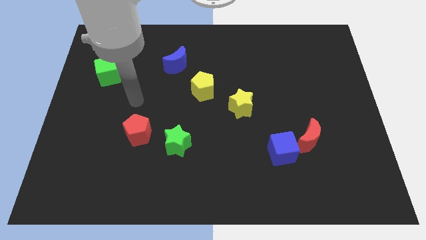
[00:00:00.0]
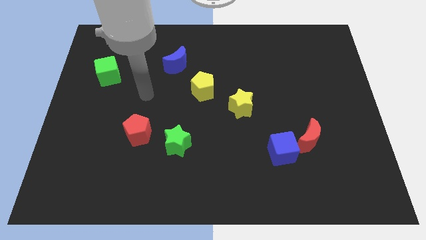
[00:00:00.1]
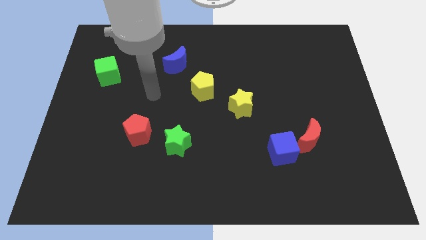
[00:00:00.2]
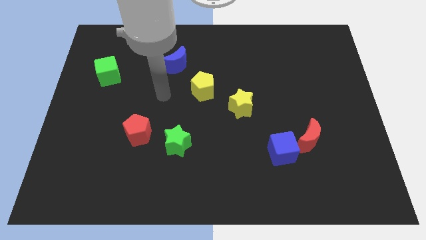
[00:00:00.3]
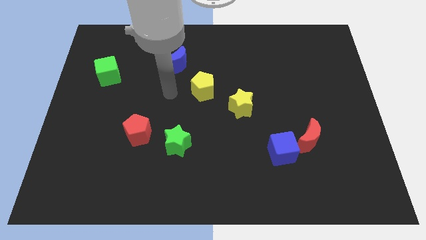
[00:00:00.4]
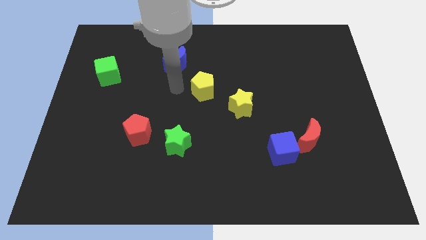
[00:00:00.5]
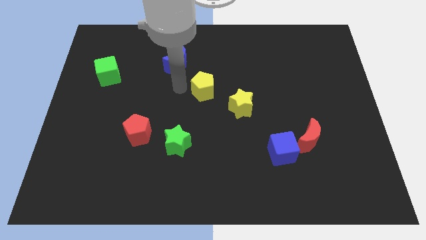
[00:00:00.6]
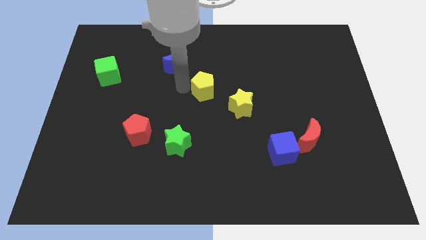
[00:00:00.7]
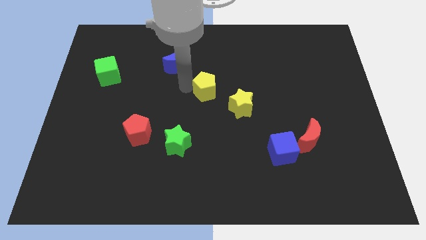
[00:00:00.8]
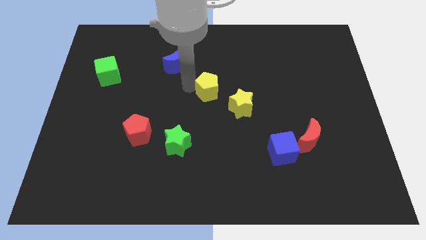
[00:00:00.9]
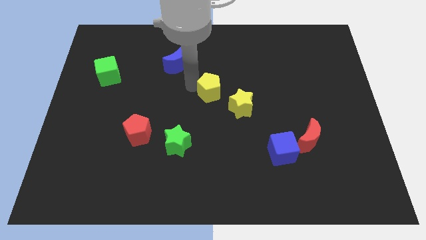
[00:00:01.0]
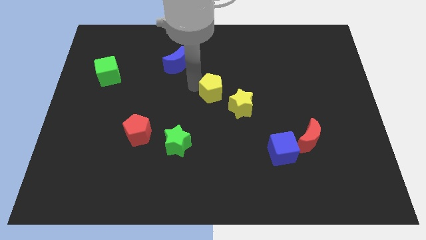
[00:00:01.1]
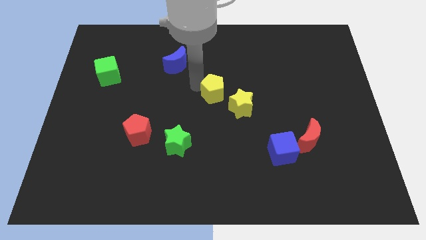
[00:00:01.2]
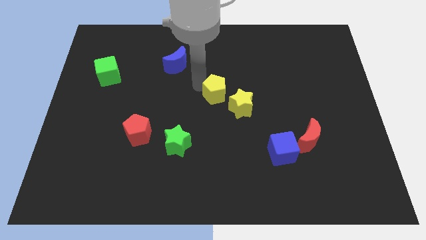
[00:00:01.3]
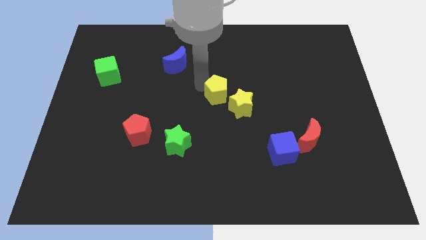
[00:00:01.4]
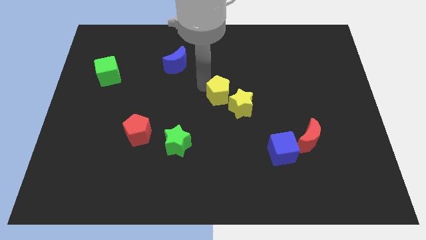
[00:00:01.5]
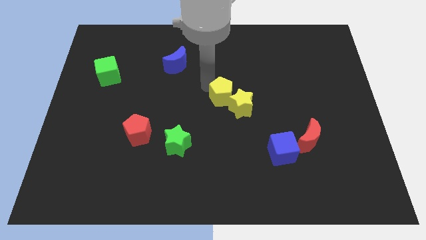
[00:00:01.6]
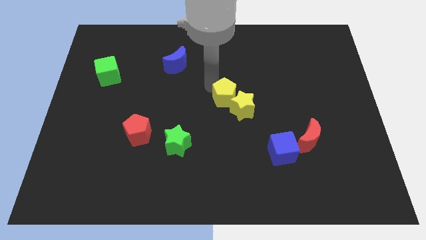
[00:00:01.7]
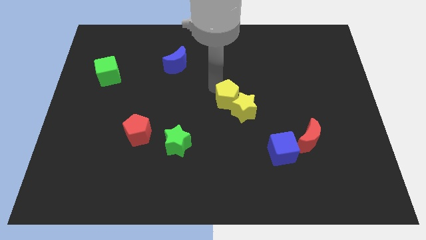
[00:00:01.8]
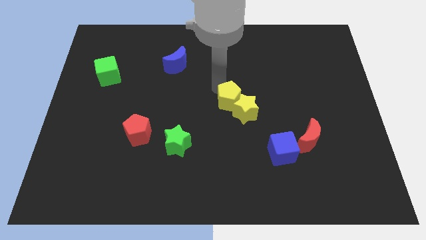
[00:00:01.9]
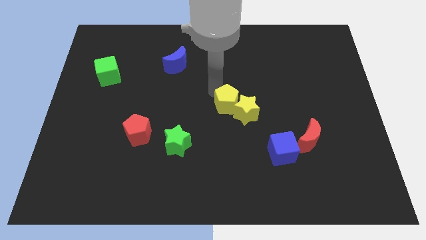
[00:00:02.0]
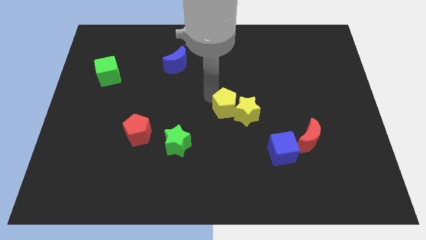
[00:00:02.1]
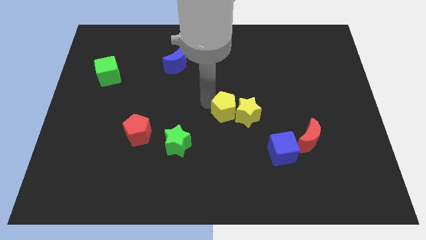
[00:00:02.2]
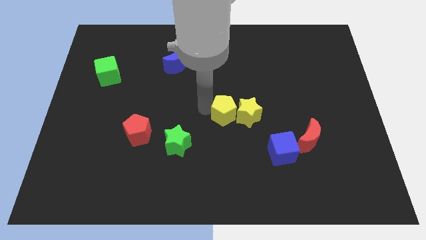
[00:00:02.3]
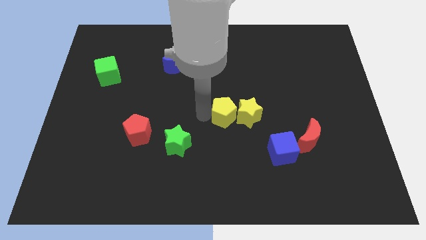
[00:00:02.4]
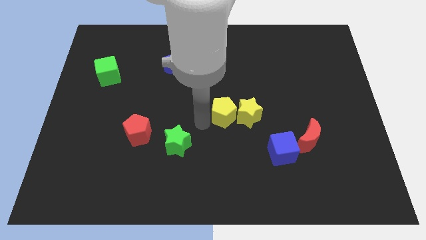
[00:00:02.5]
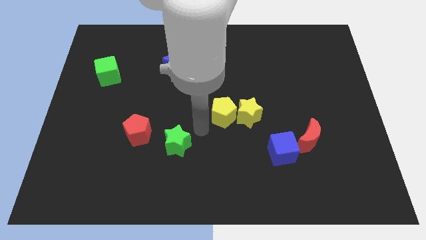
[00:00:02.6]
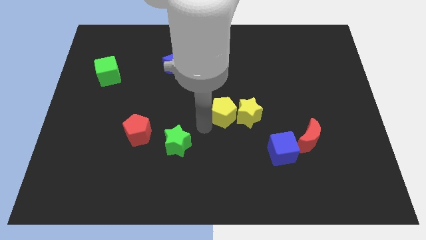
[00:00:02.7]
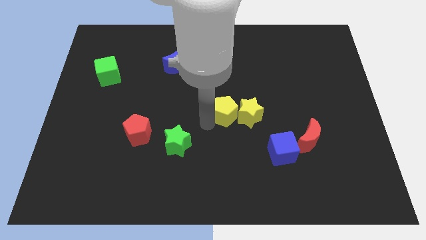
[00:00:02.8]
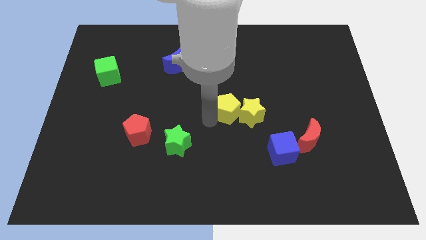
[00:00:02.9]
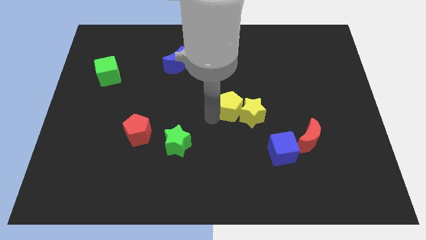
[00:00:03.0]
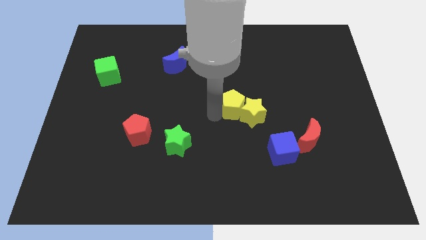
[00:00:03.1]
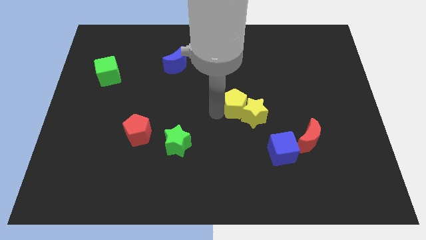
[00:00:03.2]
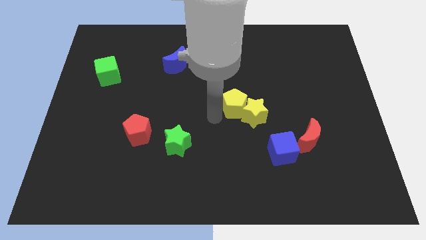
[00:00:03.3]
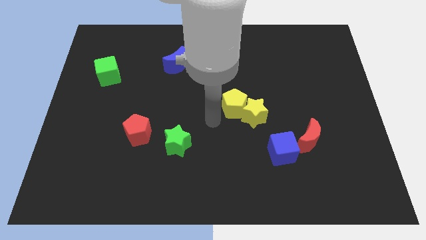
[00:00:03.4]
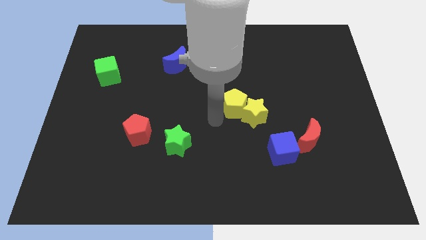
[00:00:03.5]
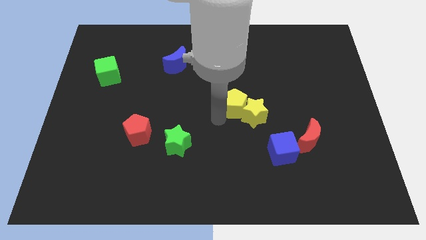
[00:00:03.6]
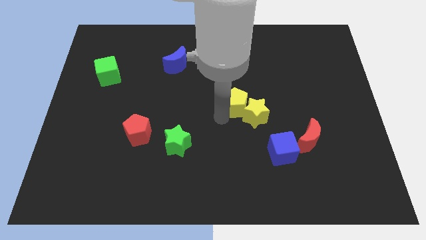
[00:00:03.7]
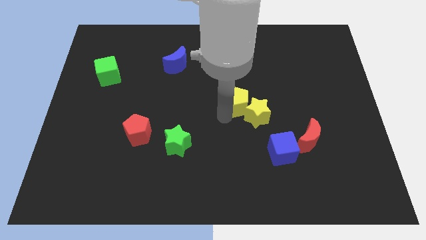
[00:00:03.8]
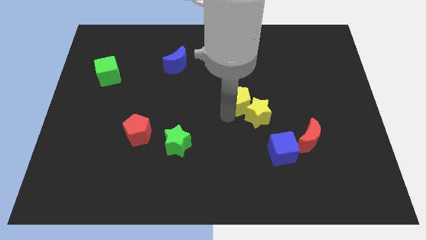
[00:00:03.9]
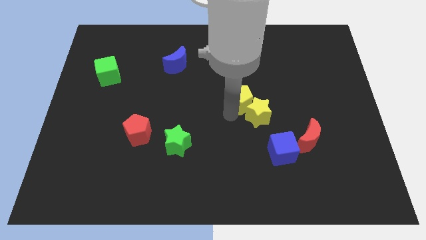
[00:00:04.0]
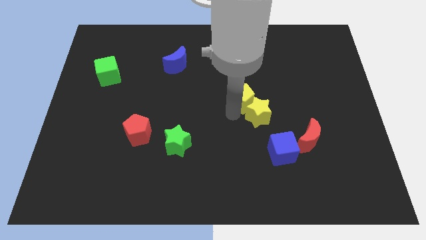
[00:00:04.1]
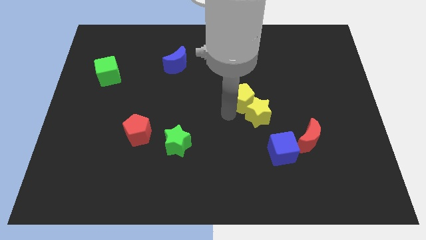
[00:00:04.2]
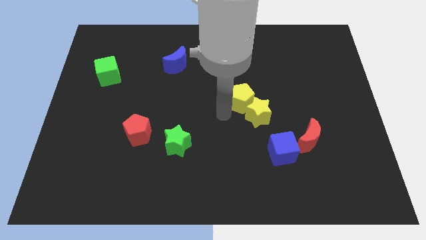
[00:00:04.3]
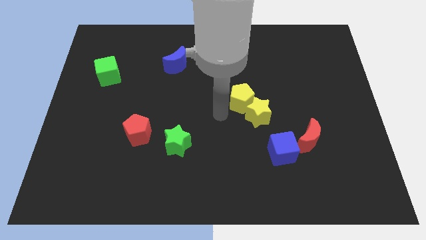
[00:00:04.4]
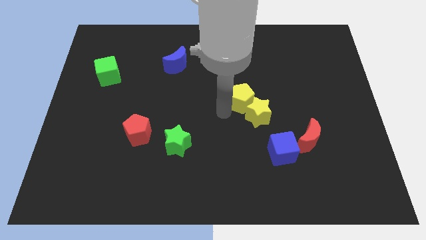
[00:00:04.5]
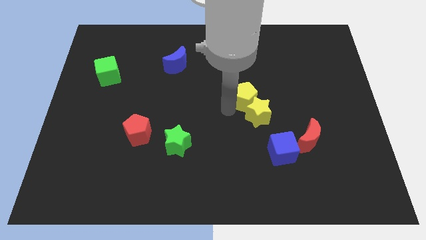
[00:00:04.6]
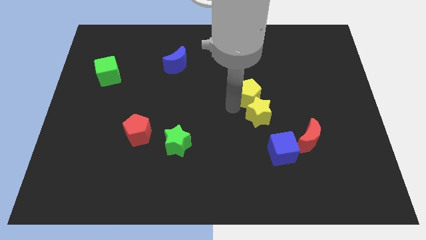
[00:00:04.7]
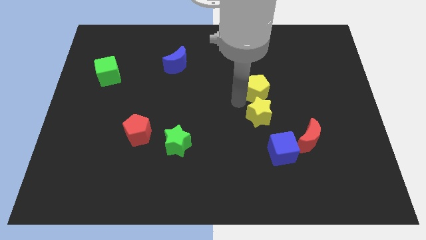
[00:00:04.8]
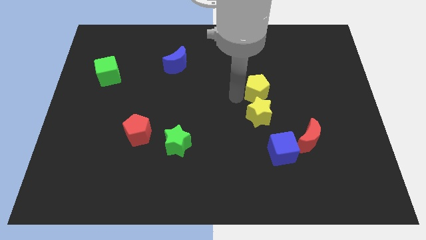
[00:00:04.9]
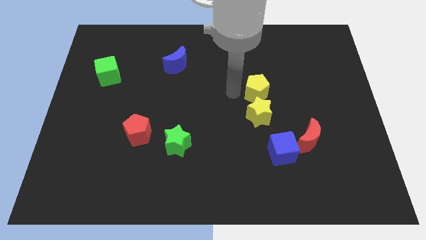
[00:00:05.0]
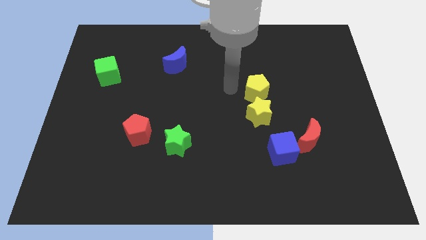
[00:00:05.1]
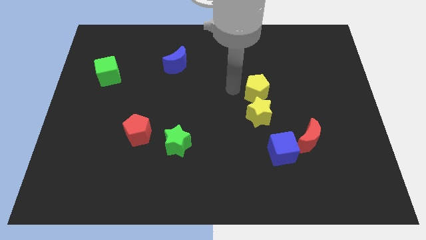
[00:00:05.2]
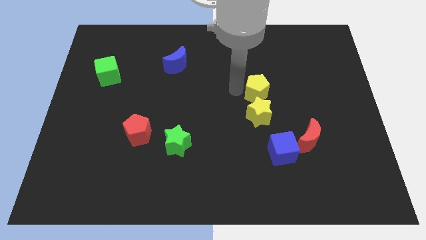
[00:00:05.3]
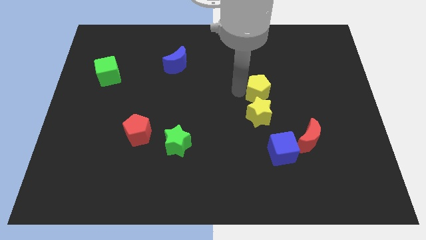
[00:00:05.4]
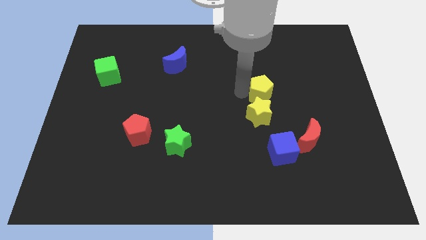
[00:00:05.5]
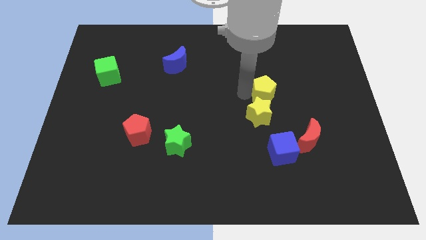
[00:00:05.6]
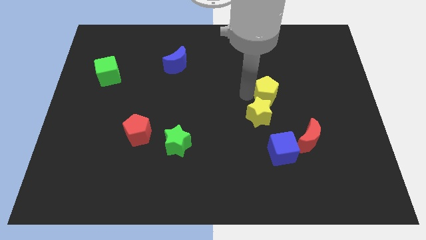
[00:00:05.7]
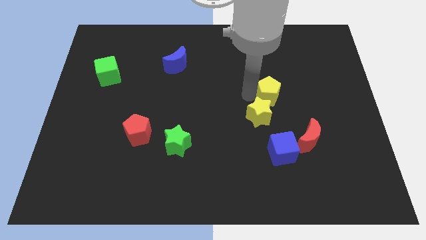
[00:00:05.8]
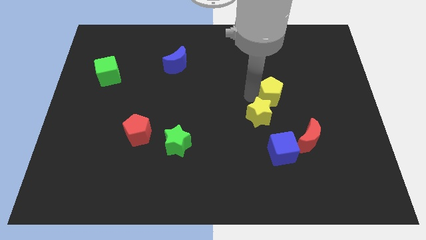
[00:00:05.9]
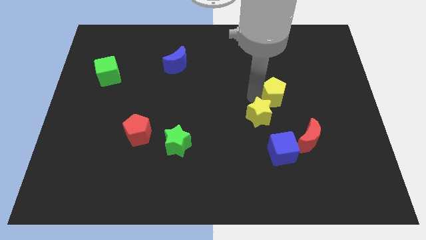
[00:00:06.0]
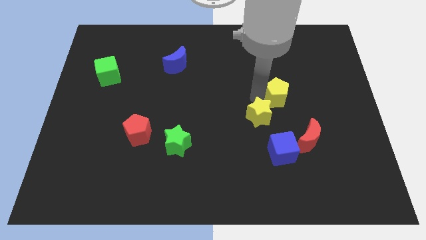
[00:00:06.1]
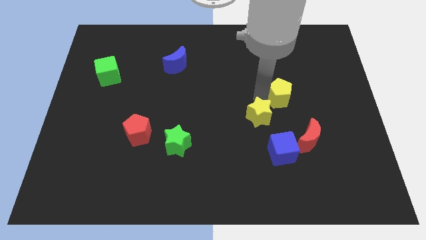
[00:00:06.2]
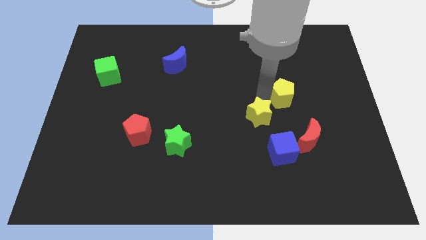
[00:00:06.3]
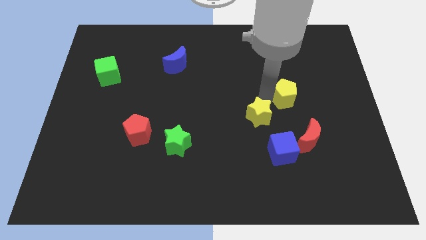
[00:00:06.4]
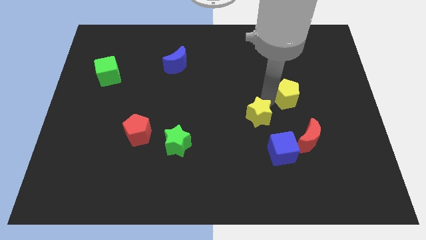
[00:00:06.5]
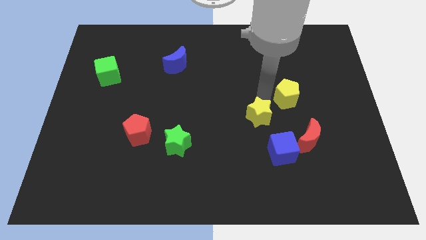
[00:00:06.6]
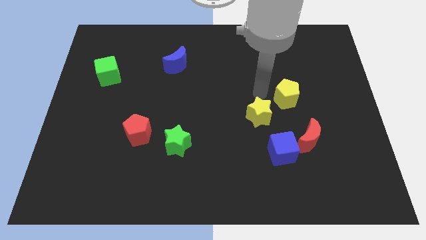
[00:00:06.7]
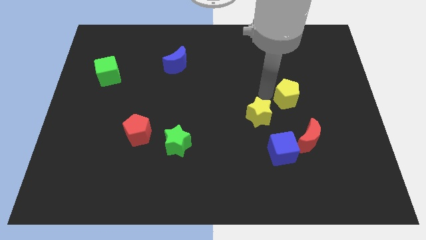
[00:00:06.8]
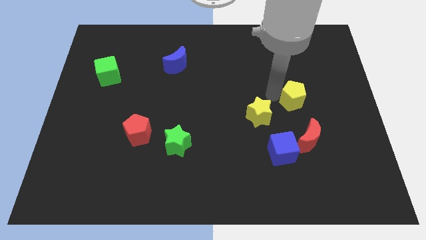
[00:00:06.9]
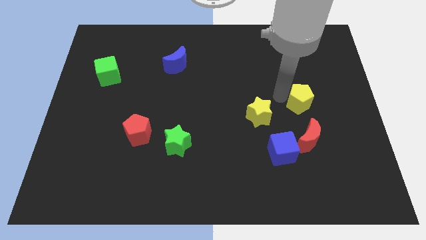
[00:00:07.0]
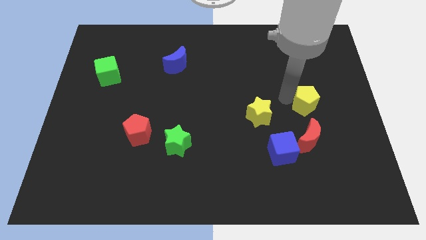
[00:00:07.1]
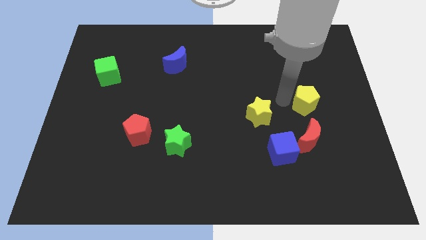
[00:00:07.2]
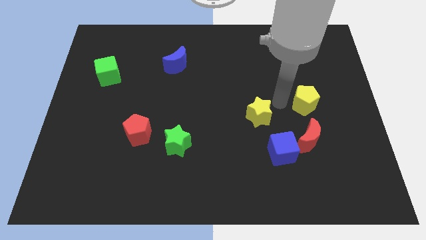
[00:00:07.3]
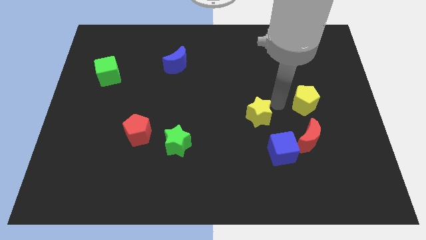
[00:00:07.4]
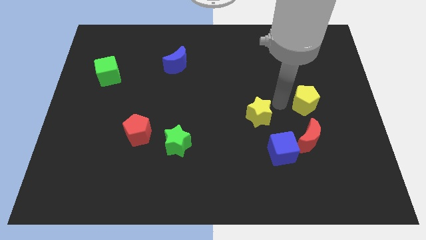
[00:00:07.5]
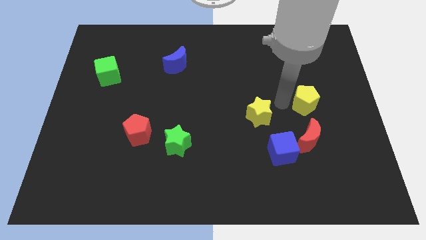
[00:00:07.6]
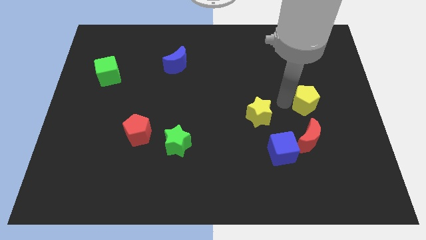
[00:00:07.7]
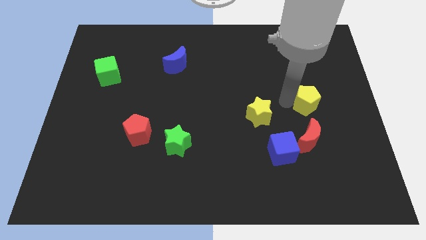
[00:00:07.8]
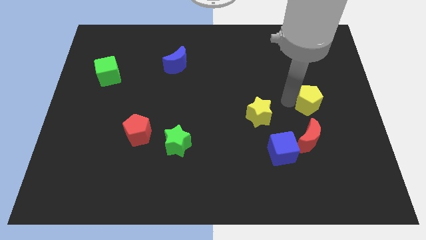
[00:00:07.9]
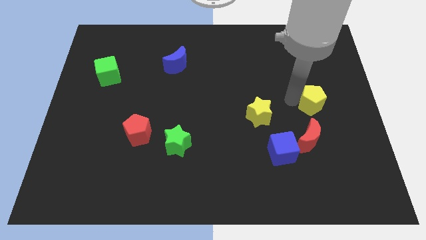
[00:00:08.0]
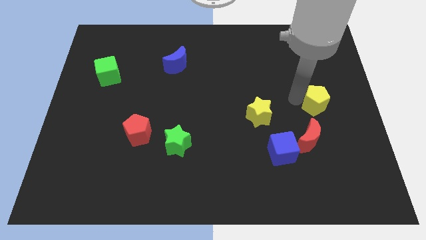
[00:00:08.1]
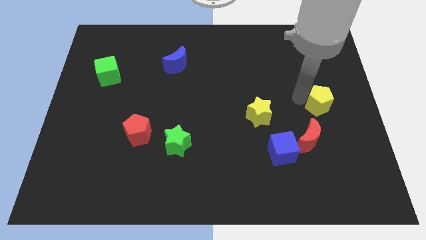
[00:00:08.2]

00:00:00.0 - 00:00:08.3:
move the yellow pentagon to the center right
